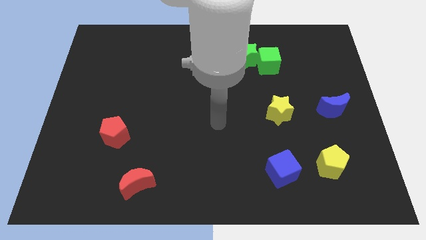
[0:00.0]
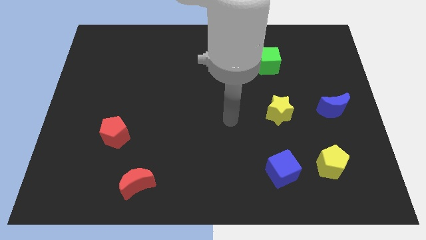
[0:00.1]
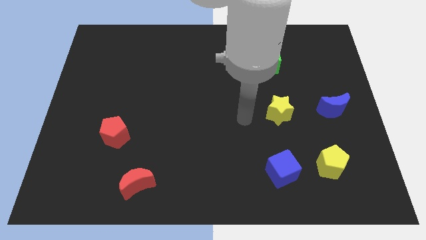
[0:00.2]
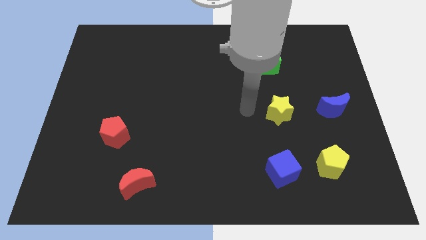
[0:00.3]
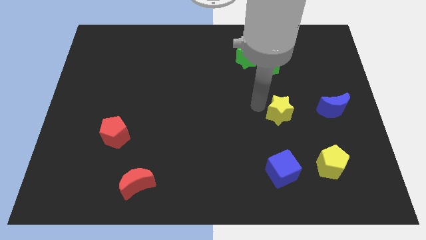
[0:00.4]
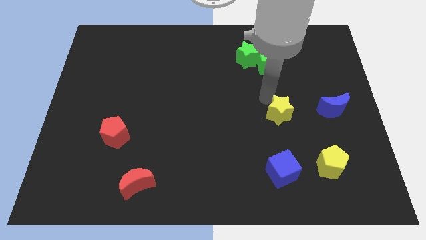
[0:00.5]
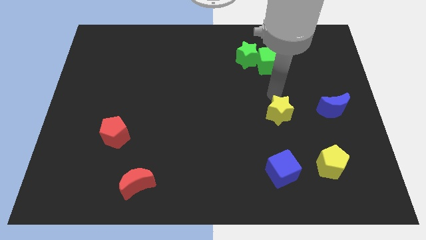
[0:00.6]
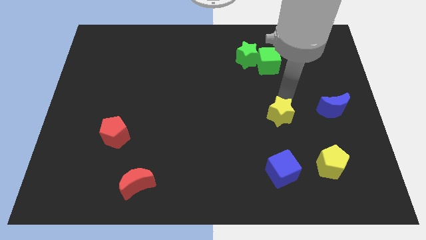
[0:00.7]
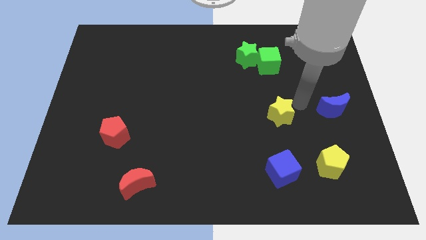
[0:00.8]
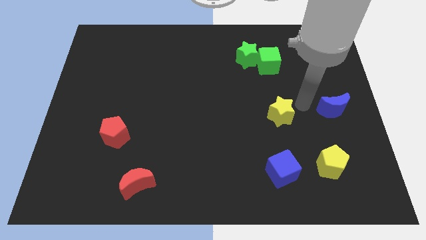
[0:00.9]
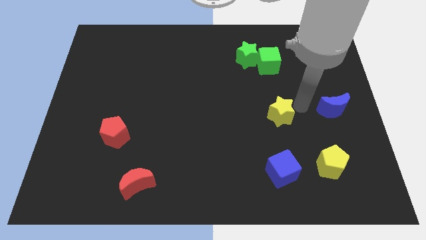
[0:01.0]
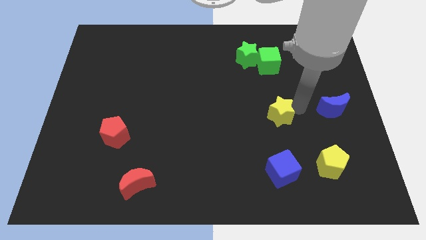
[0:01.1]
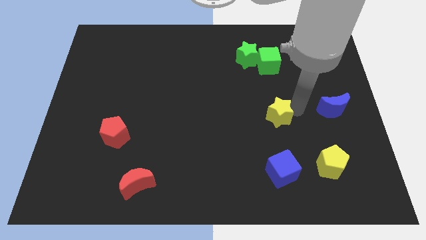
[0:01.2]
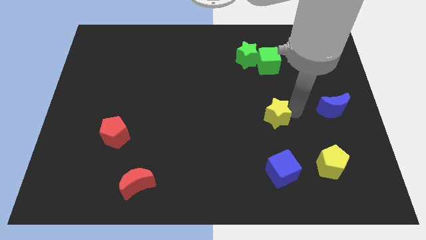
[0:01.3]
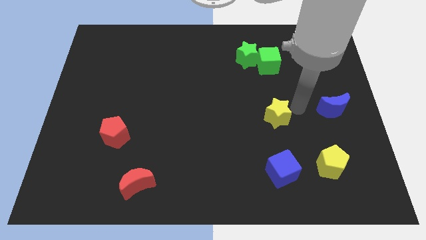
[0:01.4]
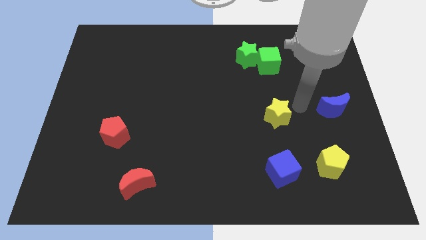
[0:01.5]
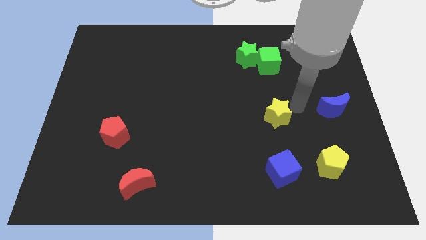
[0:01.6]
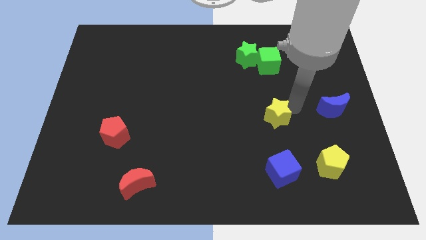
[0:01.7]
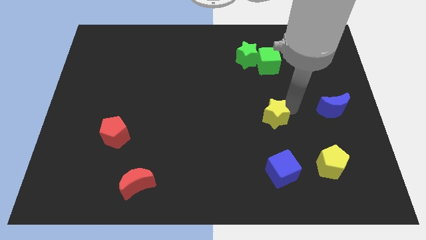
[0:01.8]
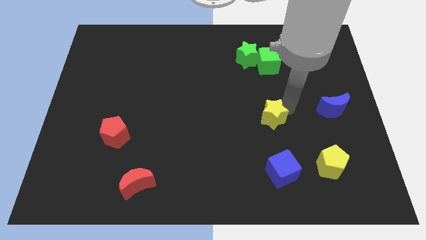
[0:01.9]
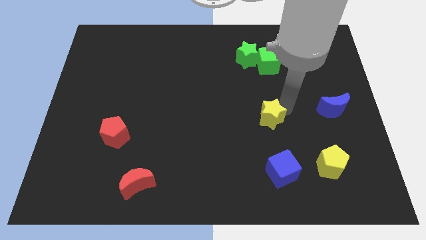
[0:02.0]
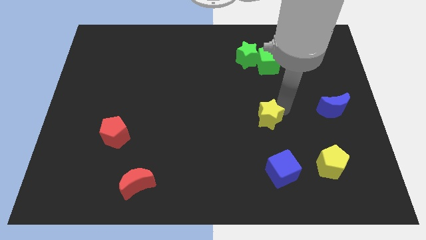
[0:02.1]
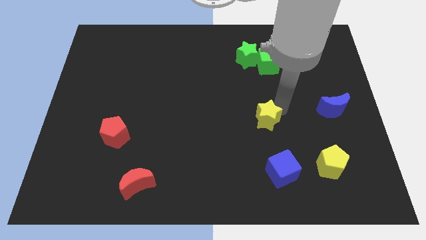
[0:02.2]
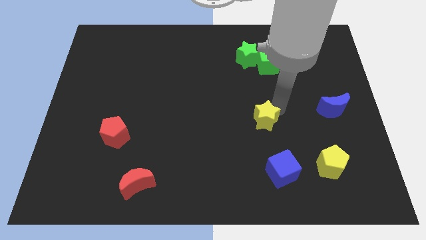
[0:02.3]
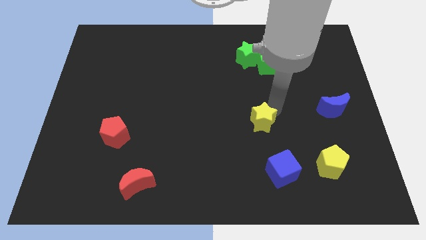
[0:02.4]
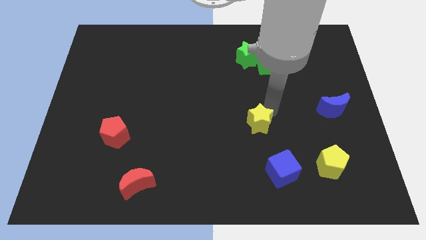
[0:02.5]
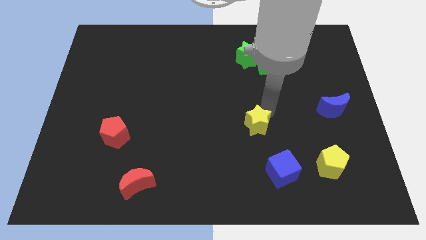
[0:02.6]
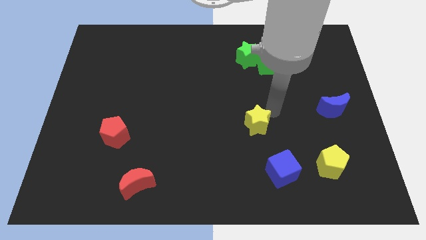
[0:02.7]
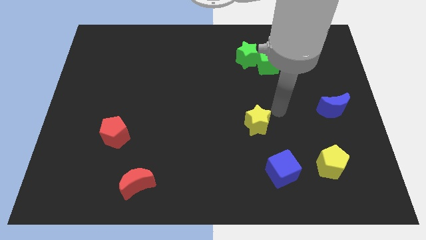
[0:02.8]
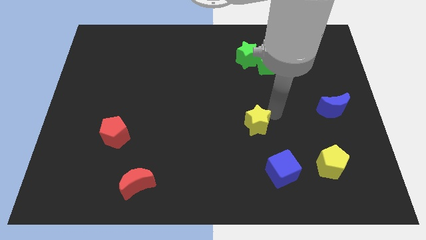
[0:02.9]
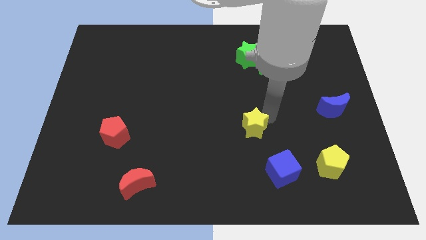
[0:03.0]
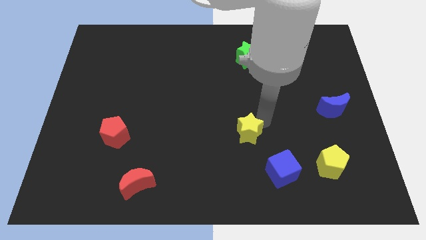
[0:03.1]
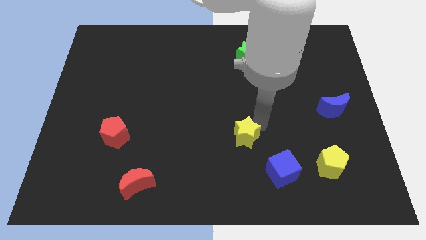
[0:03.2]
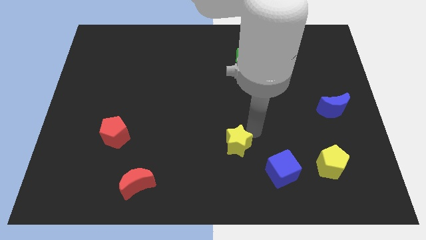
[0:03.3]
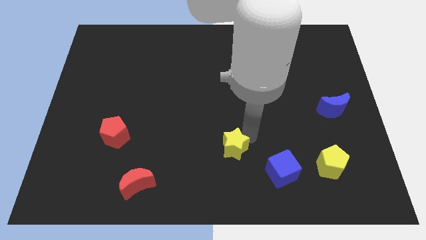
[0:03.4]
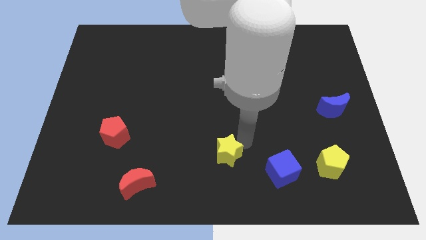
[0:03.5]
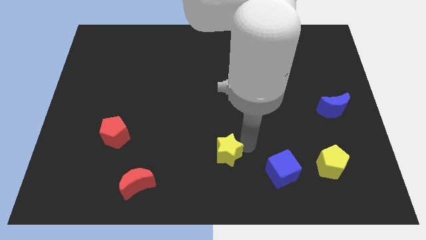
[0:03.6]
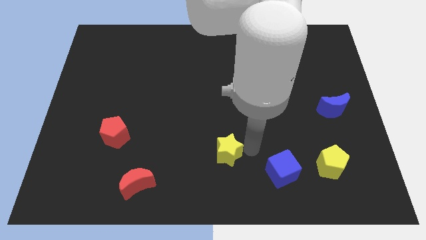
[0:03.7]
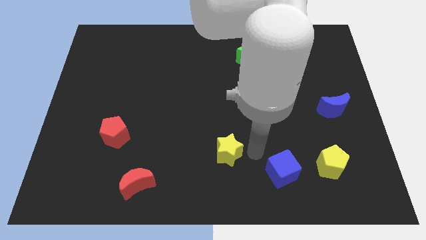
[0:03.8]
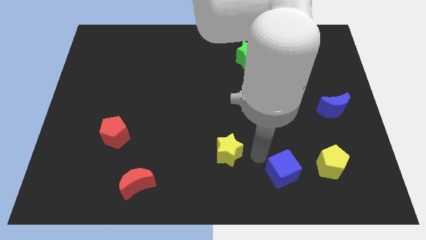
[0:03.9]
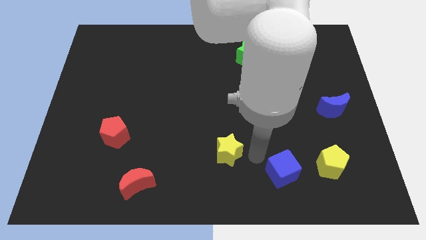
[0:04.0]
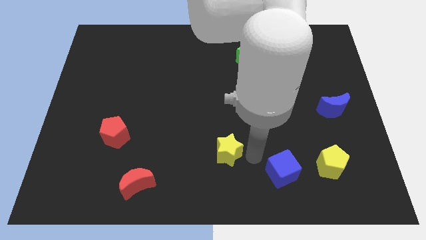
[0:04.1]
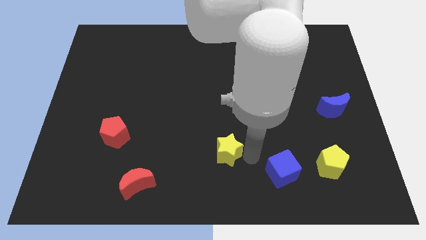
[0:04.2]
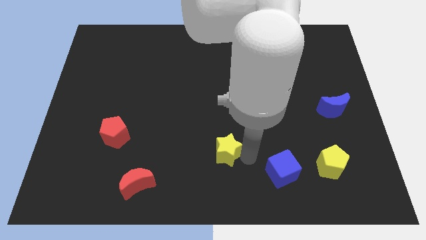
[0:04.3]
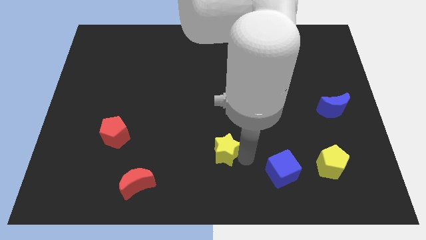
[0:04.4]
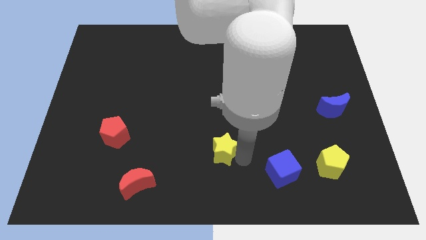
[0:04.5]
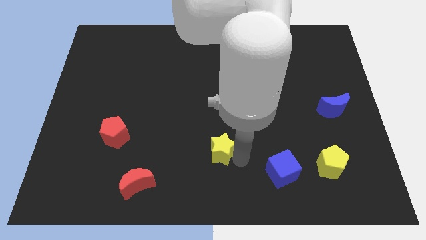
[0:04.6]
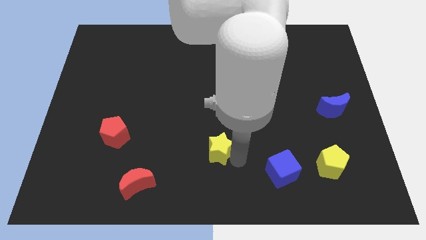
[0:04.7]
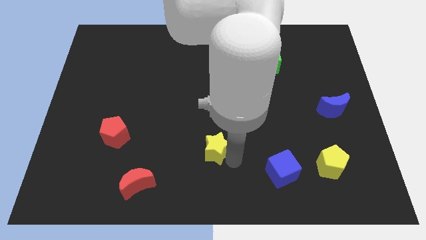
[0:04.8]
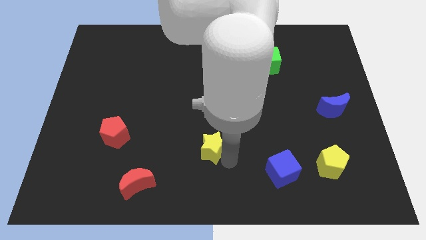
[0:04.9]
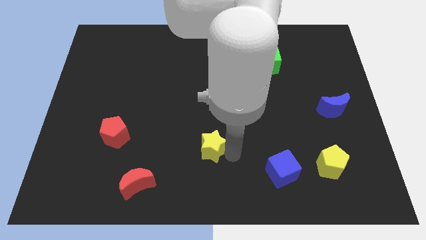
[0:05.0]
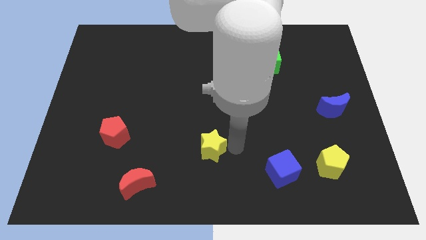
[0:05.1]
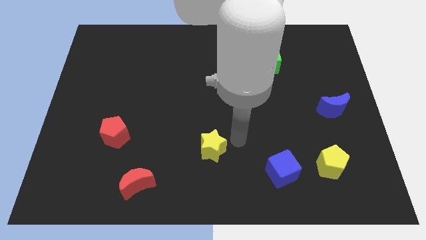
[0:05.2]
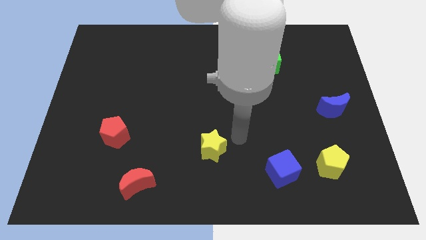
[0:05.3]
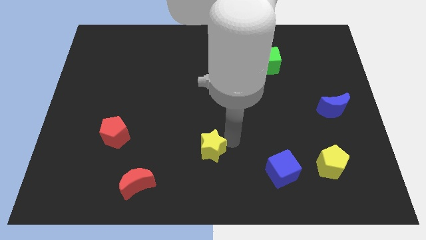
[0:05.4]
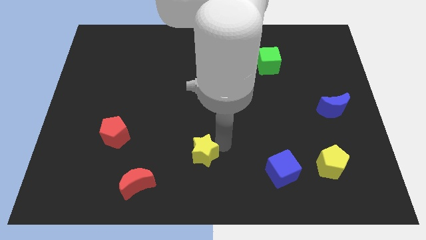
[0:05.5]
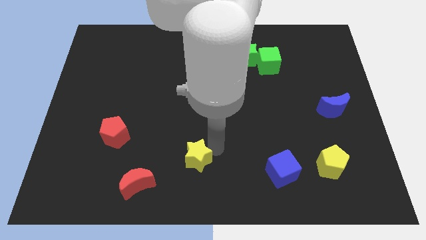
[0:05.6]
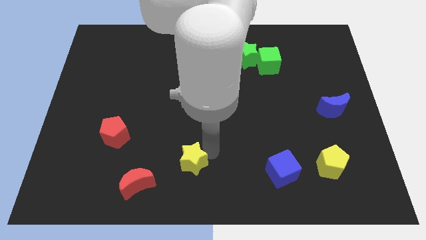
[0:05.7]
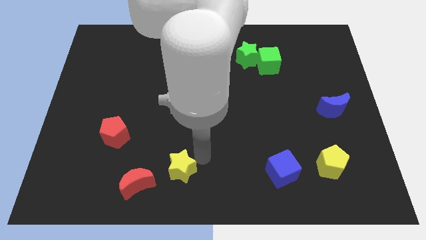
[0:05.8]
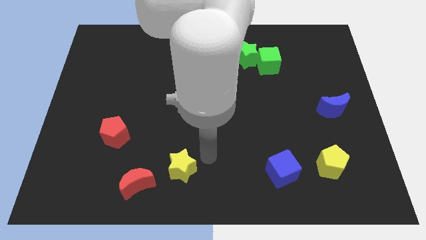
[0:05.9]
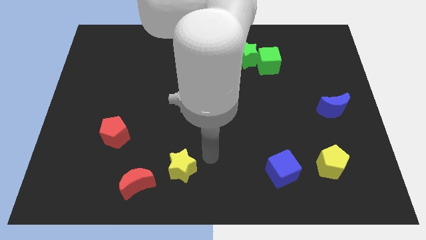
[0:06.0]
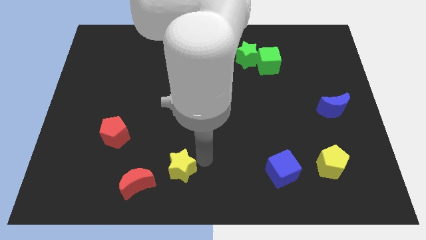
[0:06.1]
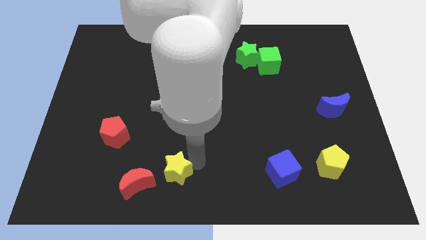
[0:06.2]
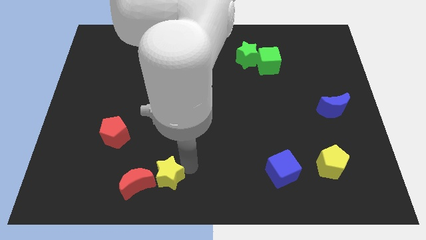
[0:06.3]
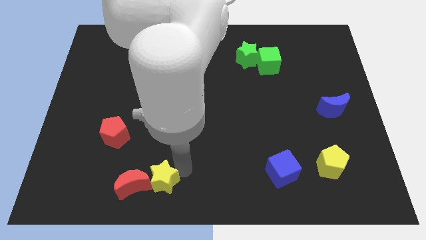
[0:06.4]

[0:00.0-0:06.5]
push the yellow star next to the red moon

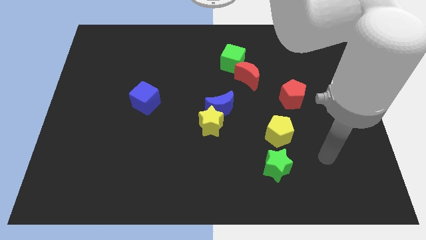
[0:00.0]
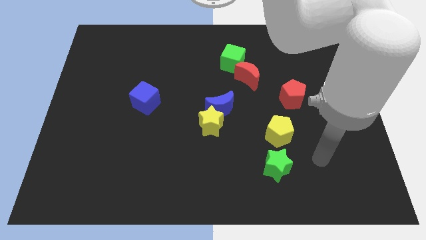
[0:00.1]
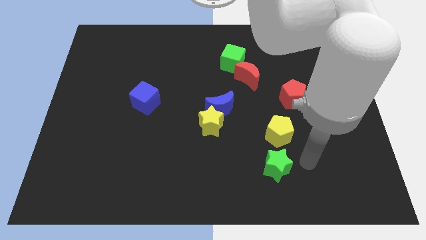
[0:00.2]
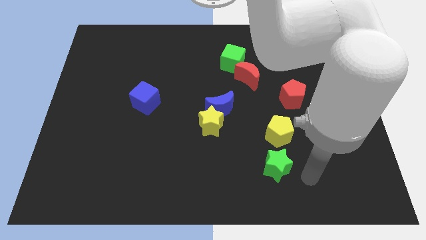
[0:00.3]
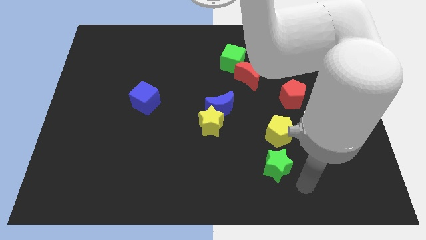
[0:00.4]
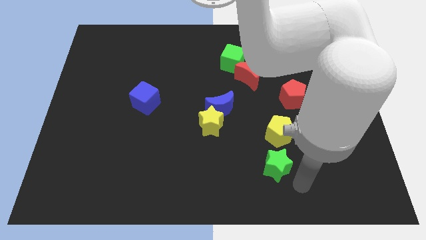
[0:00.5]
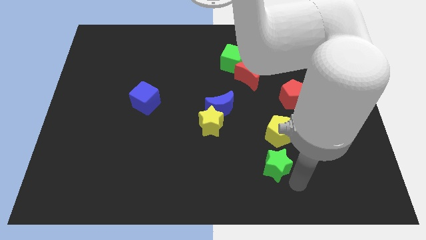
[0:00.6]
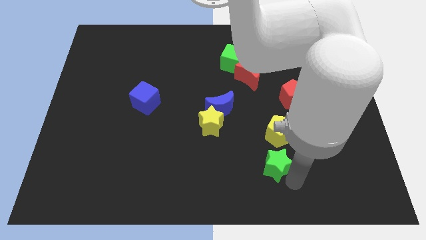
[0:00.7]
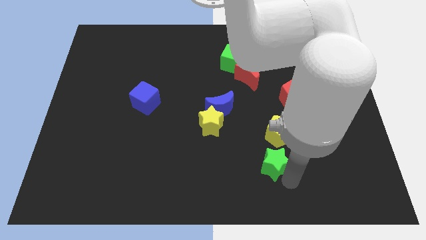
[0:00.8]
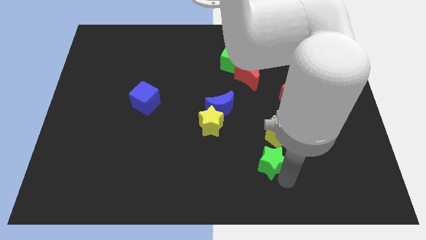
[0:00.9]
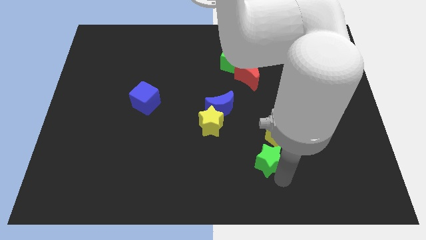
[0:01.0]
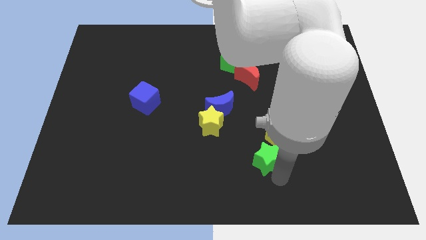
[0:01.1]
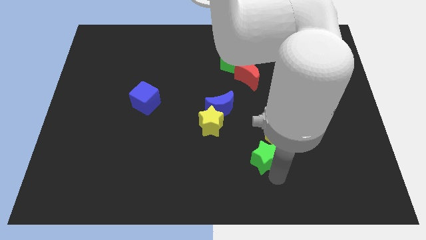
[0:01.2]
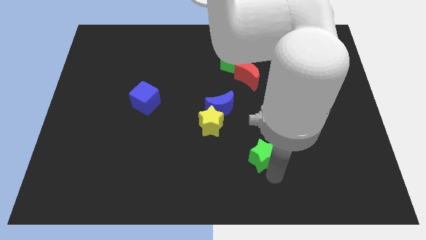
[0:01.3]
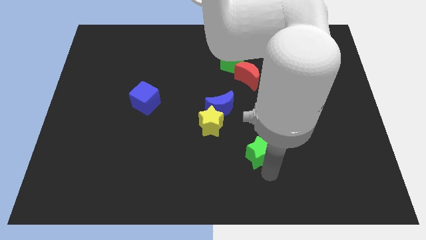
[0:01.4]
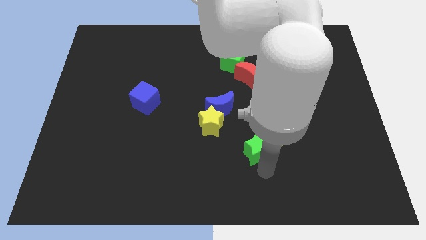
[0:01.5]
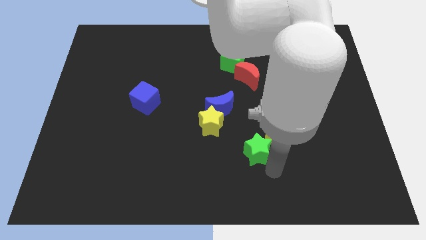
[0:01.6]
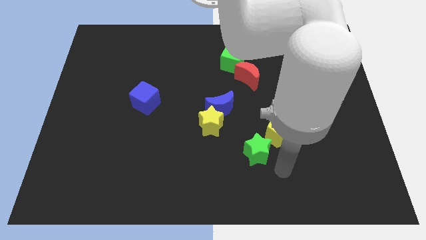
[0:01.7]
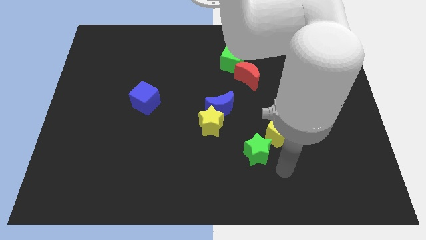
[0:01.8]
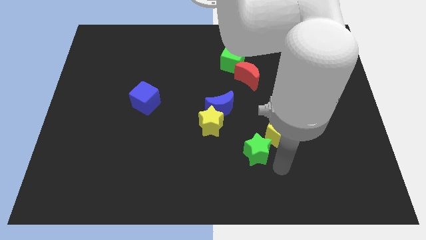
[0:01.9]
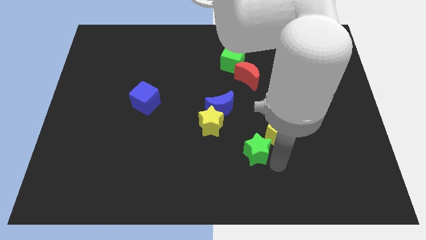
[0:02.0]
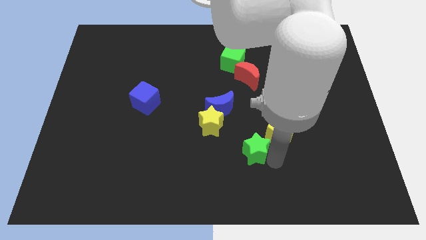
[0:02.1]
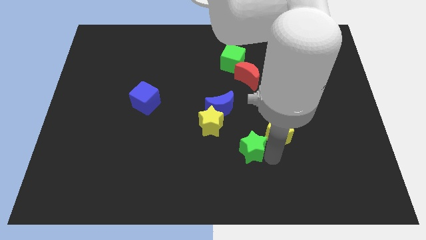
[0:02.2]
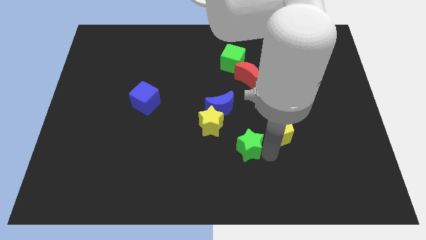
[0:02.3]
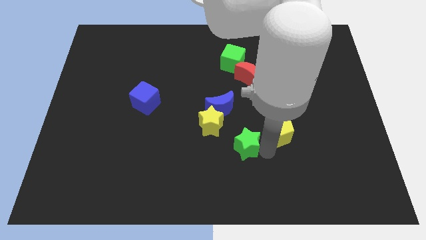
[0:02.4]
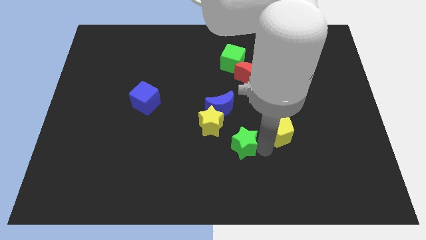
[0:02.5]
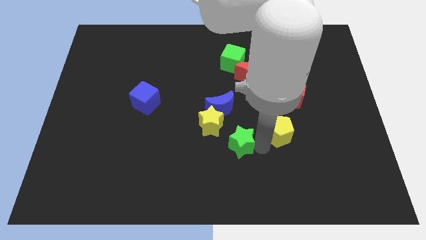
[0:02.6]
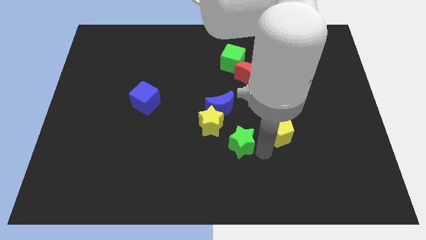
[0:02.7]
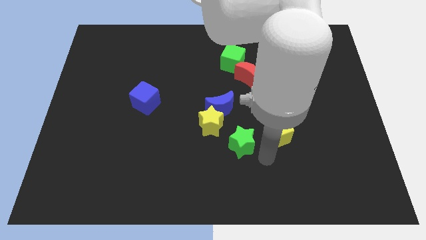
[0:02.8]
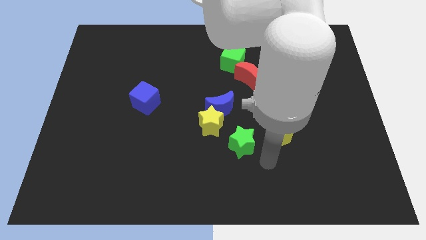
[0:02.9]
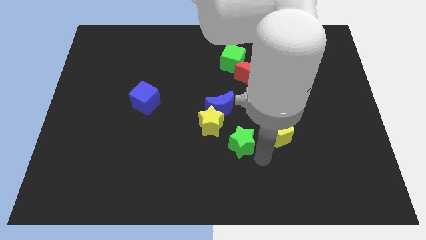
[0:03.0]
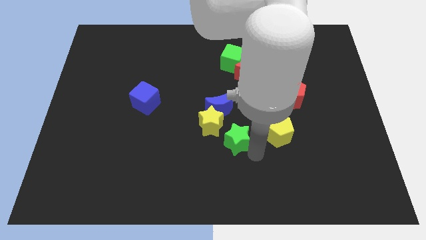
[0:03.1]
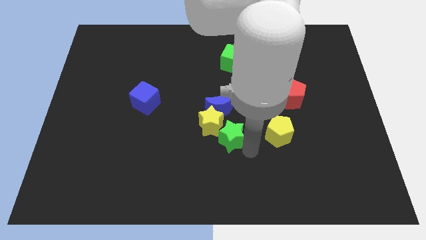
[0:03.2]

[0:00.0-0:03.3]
put the green star to the yellow star
